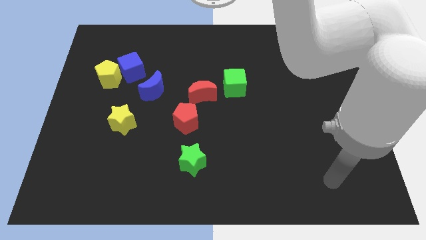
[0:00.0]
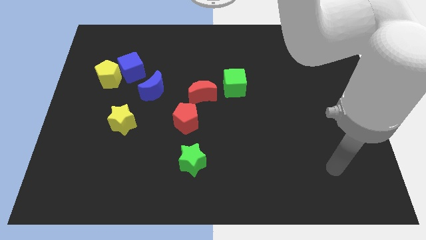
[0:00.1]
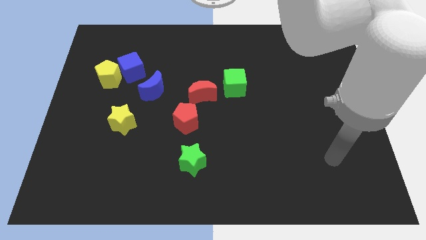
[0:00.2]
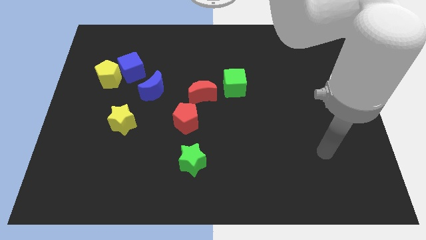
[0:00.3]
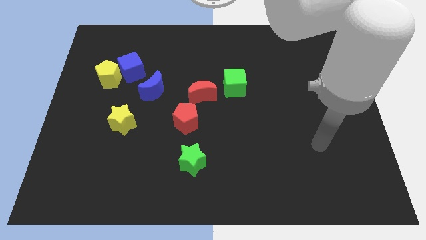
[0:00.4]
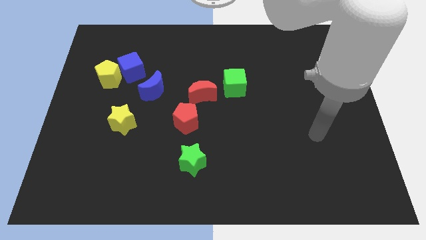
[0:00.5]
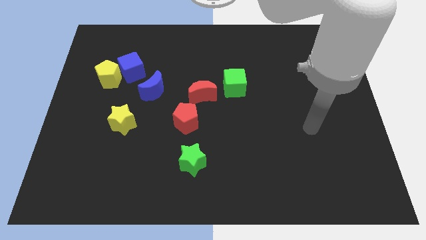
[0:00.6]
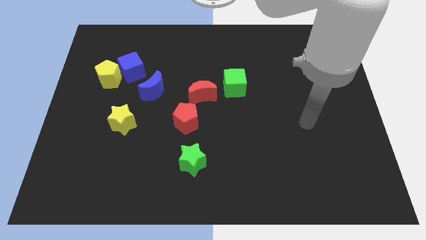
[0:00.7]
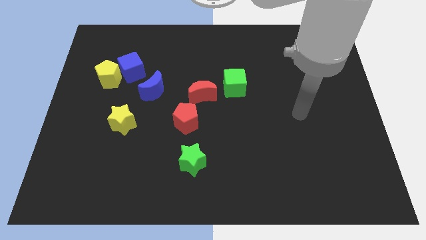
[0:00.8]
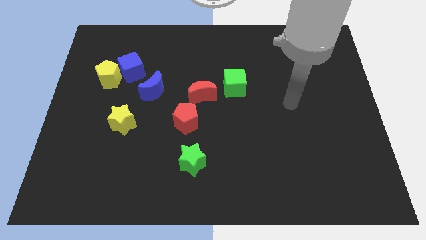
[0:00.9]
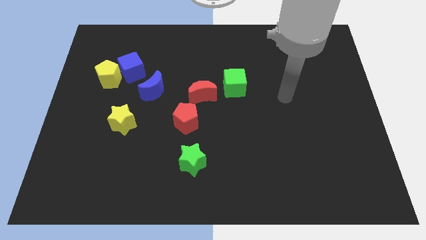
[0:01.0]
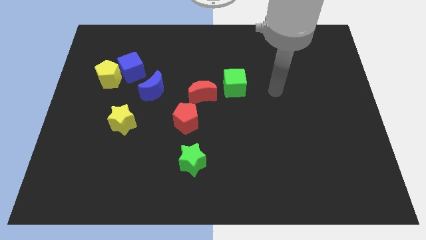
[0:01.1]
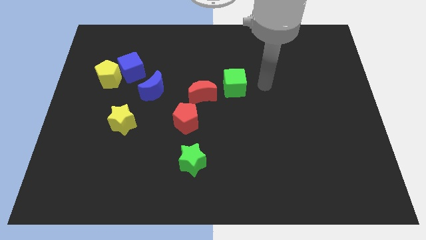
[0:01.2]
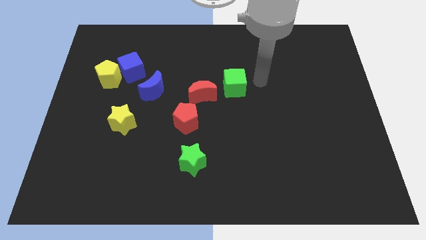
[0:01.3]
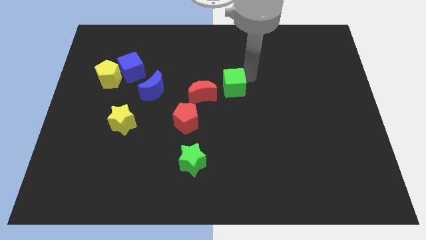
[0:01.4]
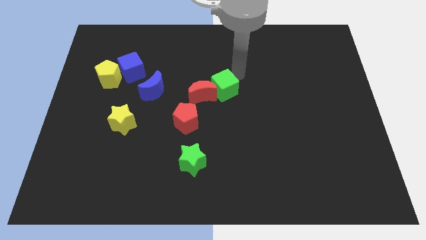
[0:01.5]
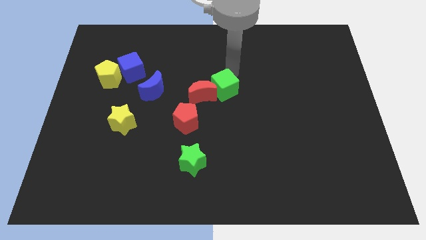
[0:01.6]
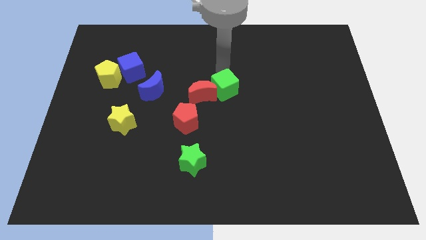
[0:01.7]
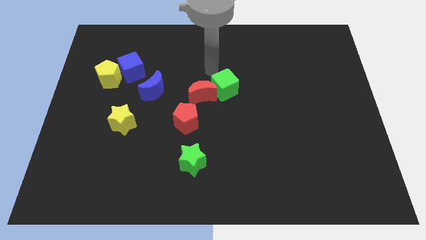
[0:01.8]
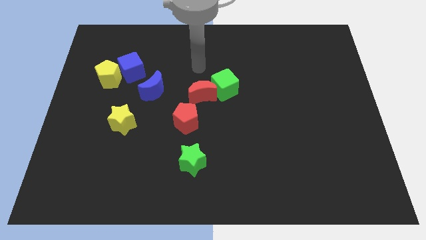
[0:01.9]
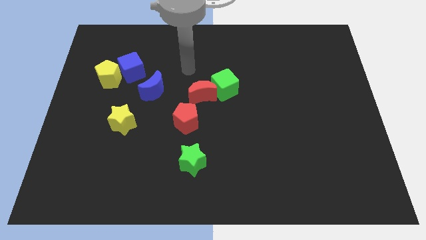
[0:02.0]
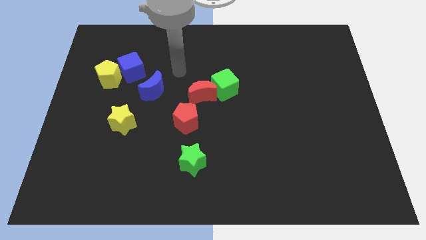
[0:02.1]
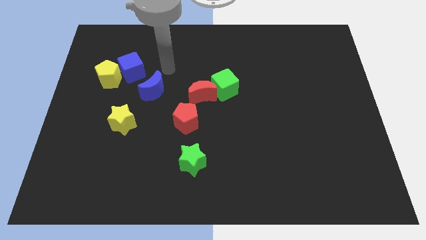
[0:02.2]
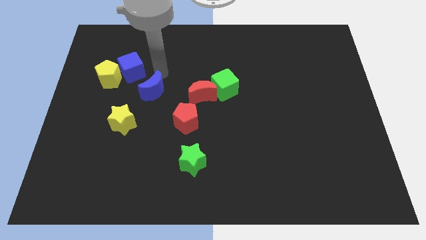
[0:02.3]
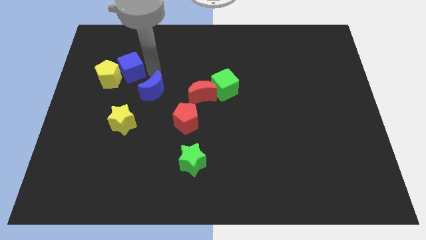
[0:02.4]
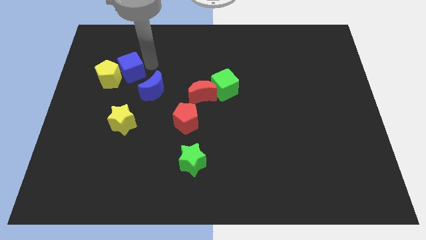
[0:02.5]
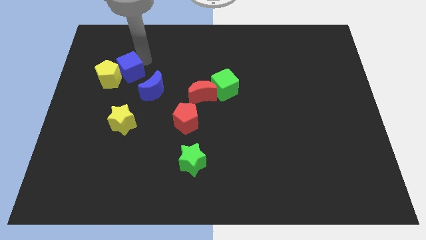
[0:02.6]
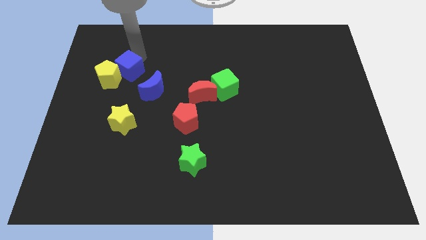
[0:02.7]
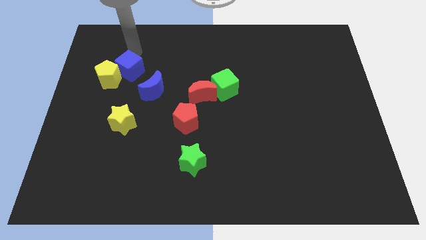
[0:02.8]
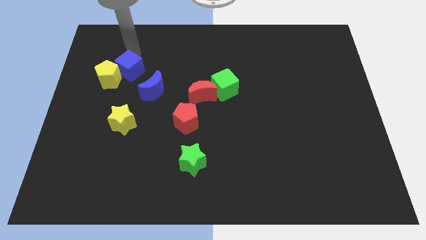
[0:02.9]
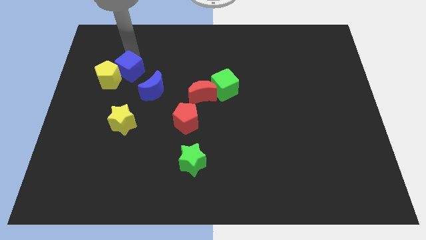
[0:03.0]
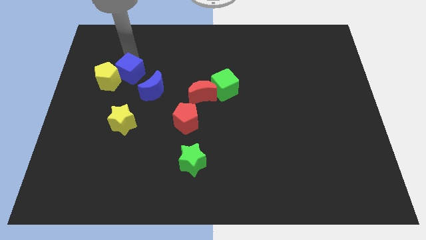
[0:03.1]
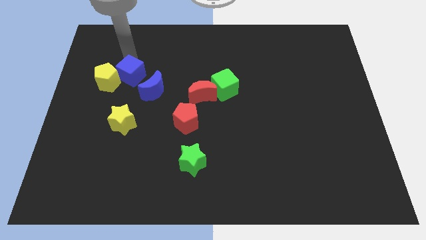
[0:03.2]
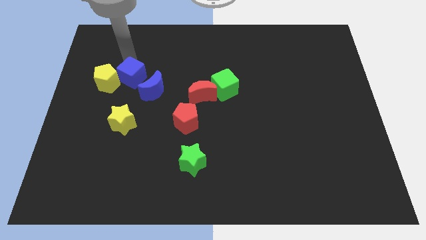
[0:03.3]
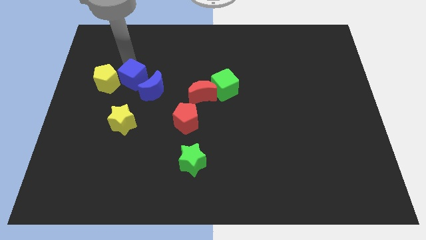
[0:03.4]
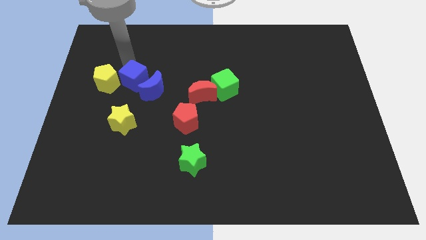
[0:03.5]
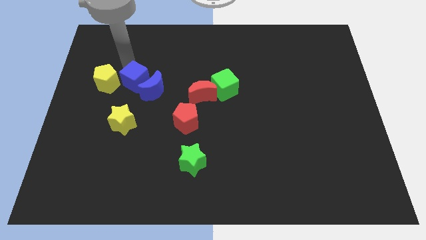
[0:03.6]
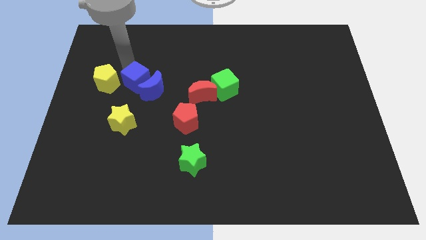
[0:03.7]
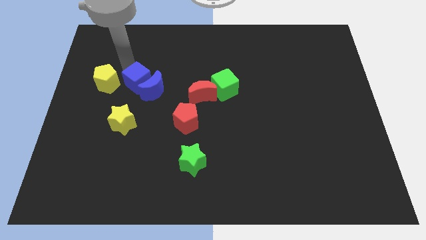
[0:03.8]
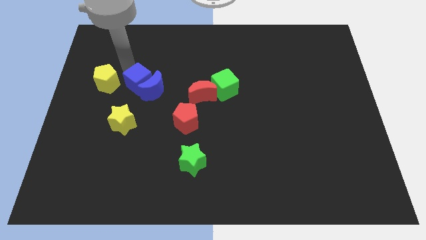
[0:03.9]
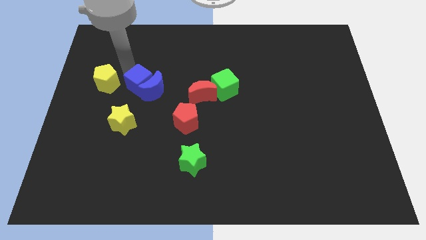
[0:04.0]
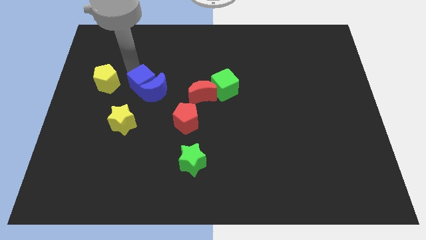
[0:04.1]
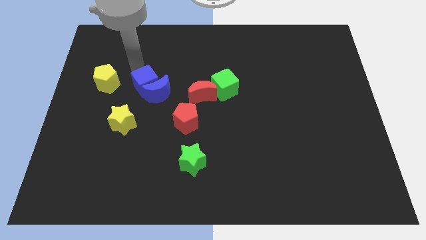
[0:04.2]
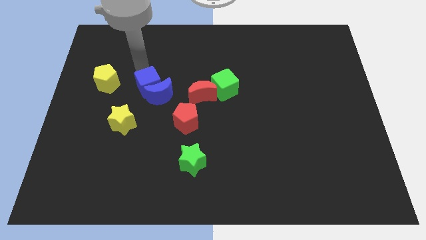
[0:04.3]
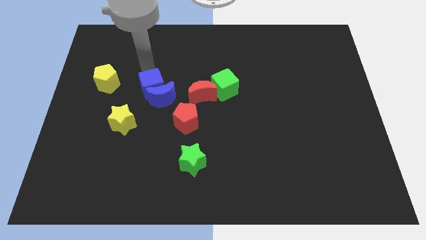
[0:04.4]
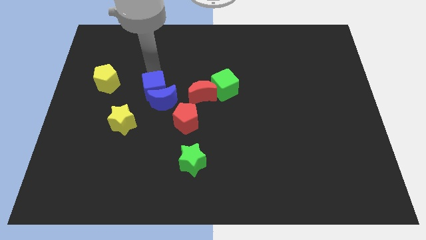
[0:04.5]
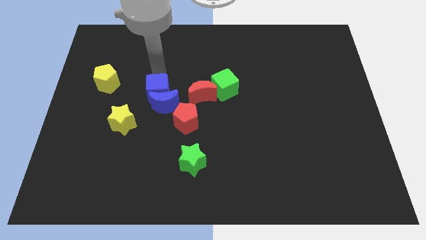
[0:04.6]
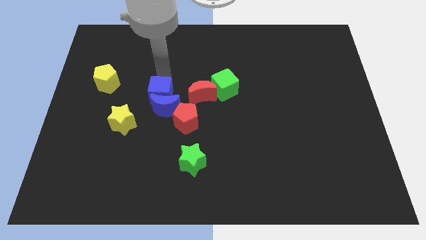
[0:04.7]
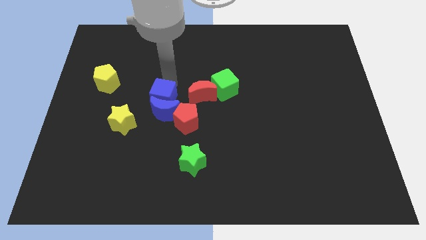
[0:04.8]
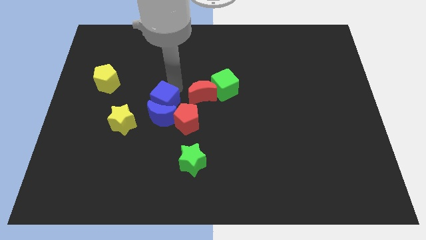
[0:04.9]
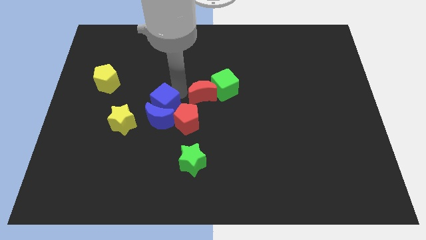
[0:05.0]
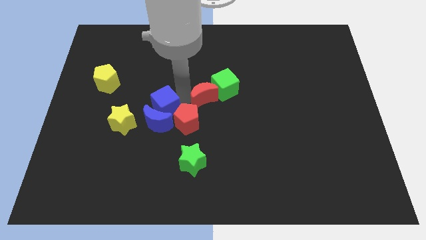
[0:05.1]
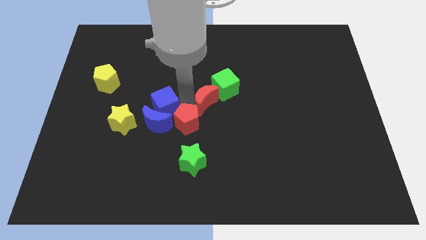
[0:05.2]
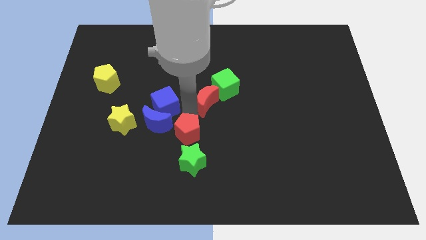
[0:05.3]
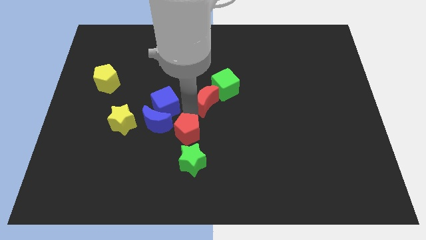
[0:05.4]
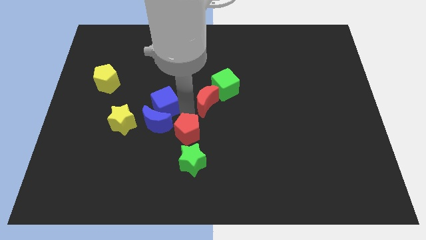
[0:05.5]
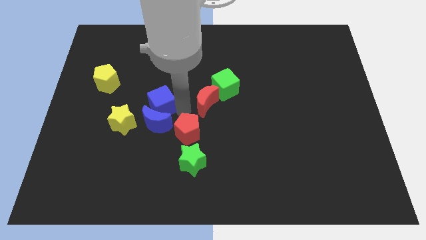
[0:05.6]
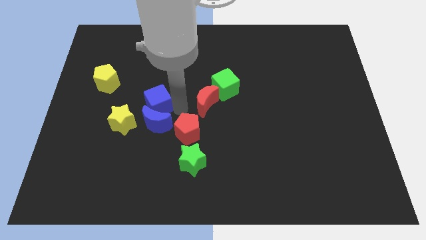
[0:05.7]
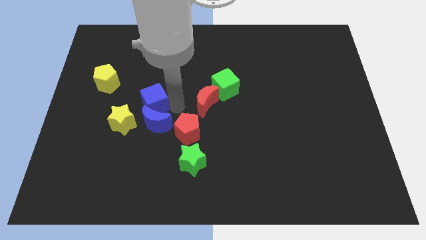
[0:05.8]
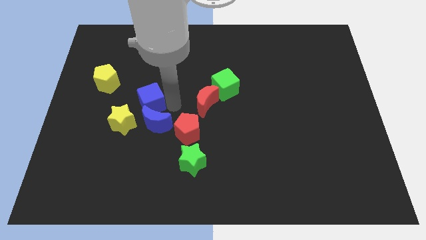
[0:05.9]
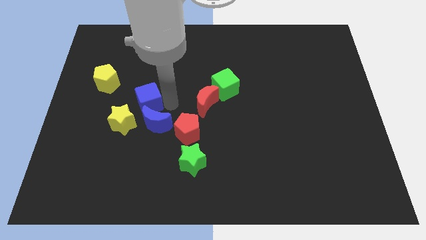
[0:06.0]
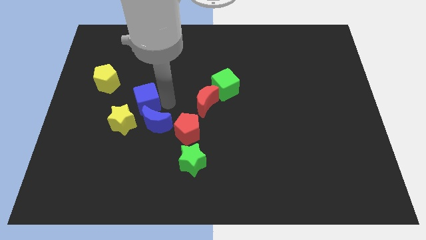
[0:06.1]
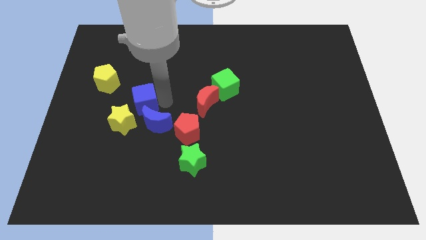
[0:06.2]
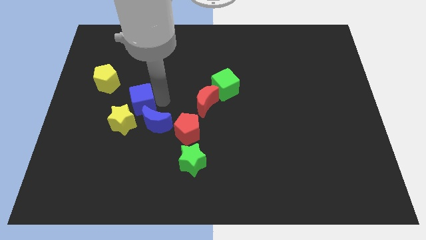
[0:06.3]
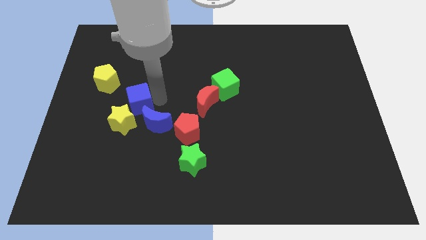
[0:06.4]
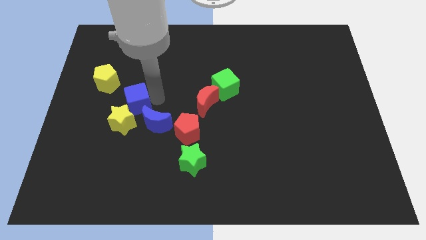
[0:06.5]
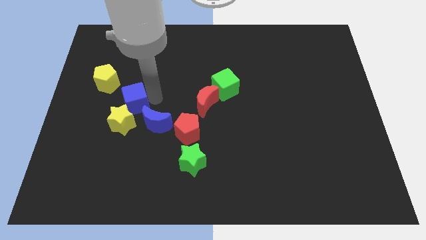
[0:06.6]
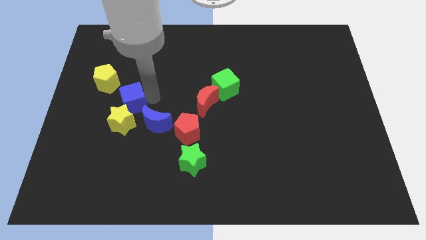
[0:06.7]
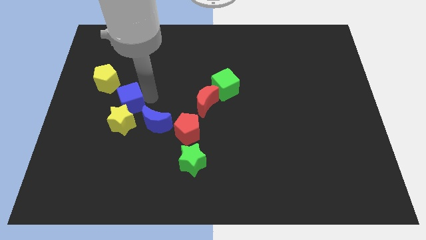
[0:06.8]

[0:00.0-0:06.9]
slide the blue cube to the top left side of the yellow star
